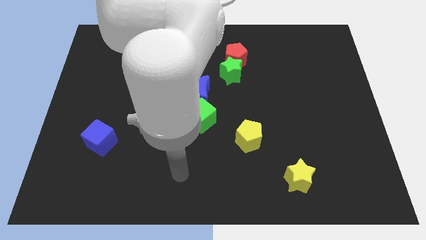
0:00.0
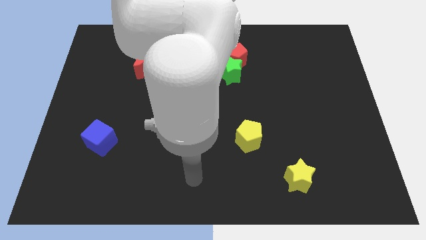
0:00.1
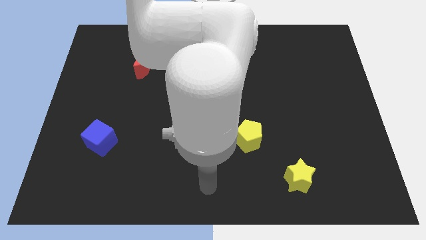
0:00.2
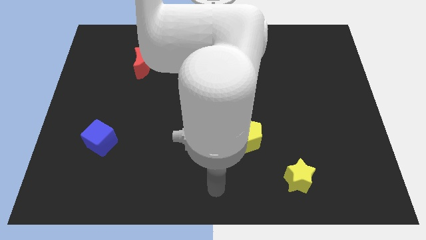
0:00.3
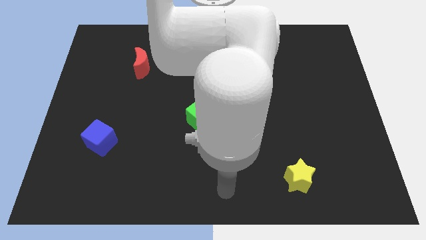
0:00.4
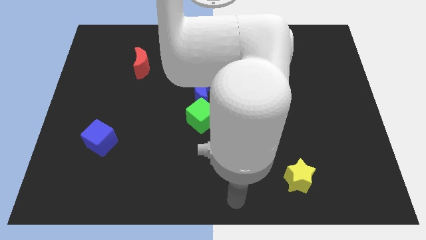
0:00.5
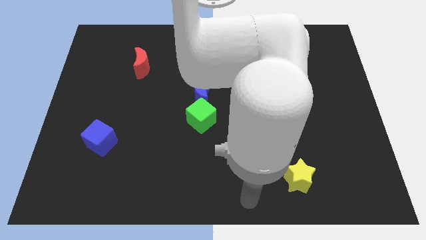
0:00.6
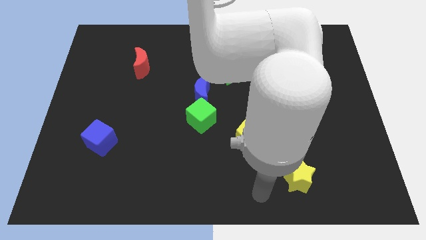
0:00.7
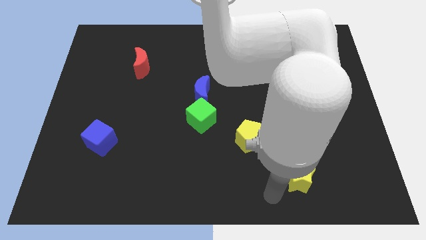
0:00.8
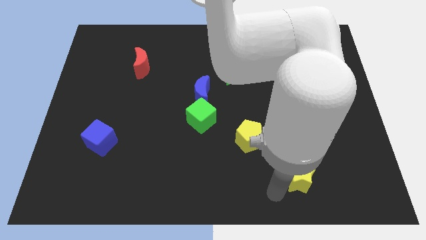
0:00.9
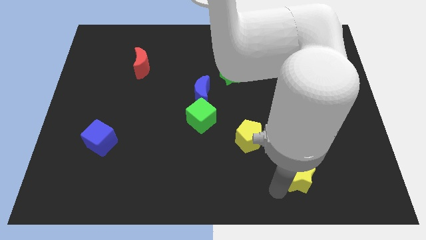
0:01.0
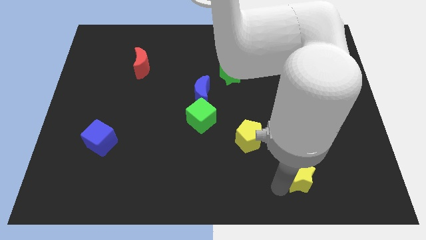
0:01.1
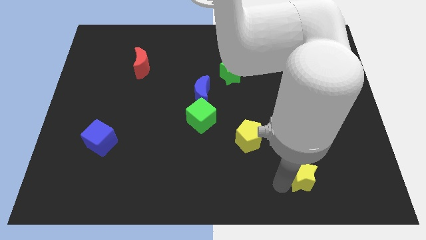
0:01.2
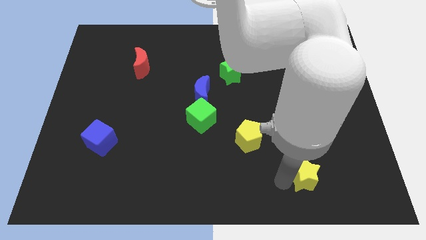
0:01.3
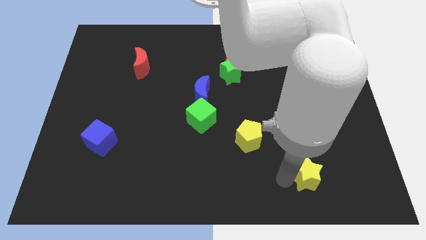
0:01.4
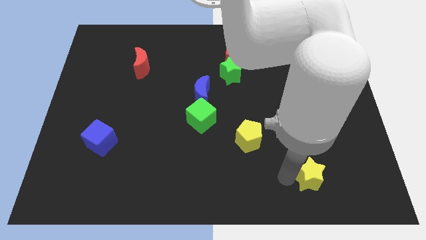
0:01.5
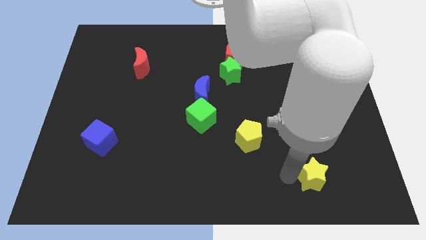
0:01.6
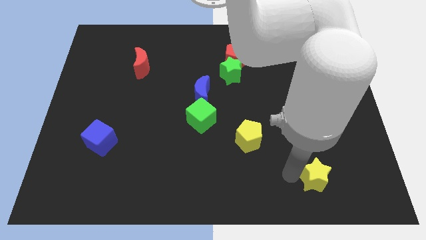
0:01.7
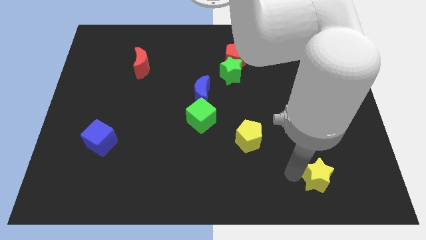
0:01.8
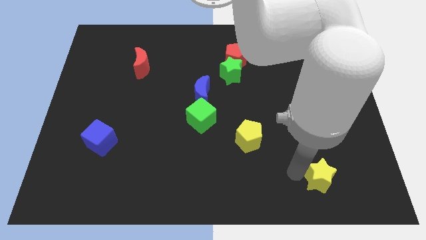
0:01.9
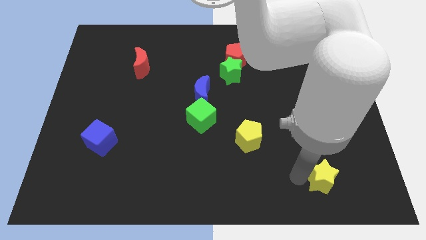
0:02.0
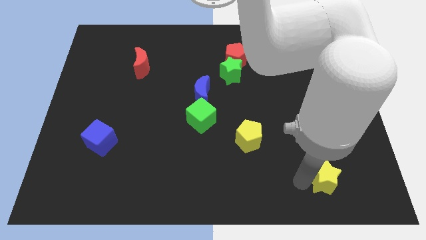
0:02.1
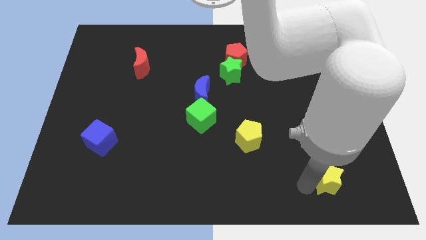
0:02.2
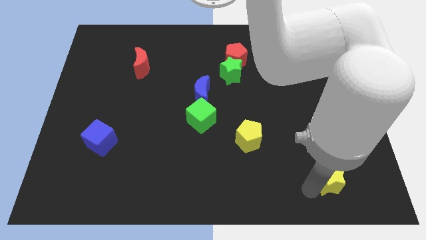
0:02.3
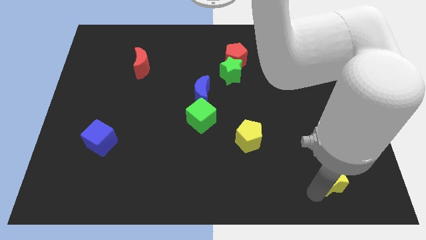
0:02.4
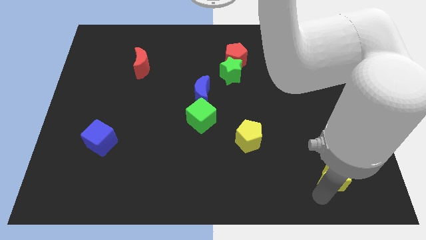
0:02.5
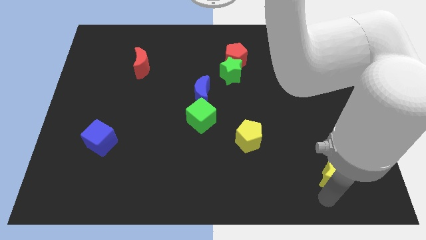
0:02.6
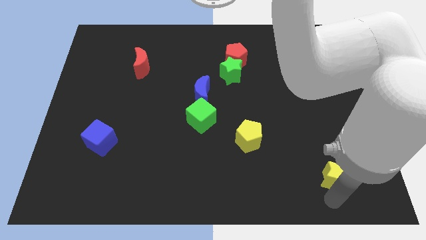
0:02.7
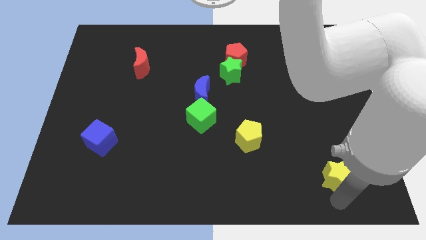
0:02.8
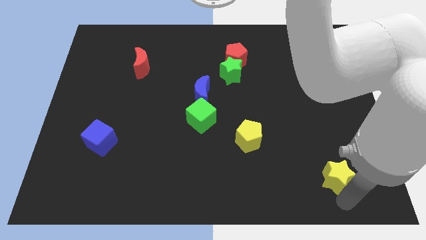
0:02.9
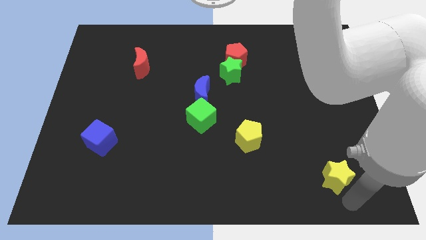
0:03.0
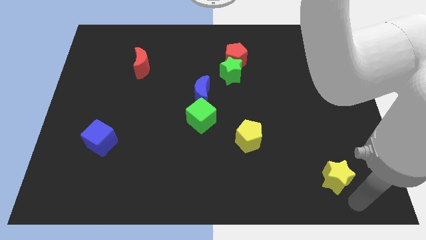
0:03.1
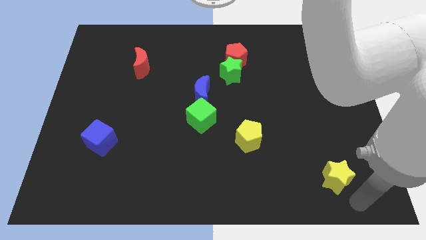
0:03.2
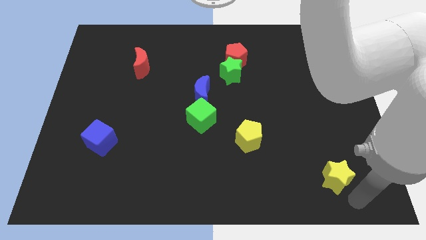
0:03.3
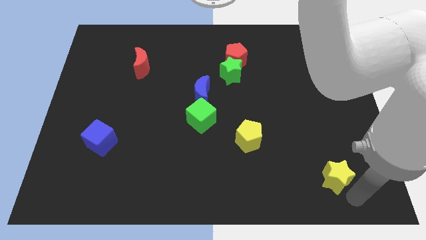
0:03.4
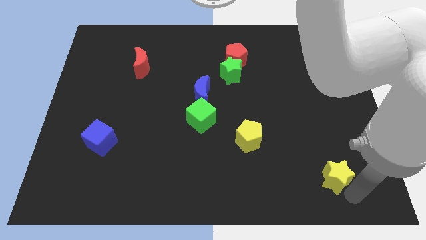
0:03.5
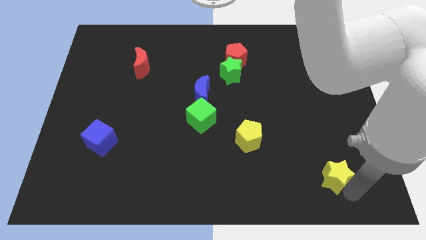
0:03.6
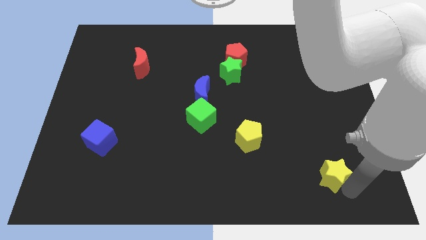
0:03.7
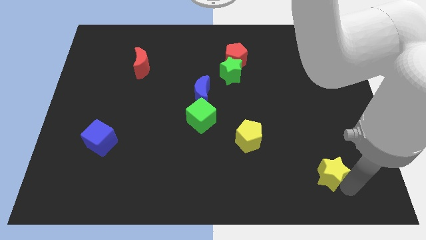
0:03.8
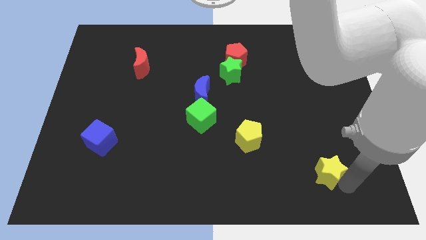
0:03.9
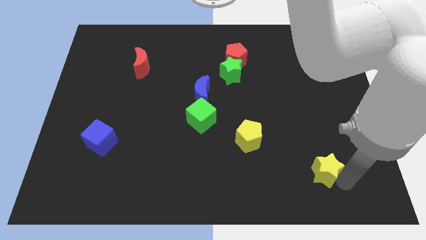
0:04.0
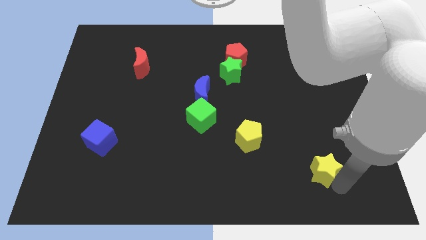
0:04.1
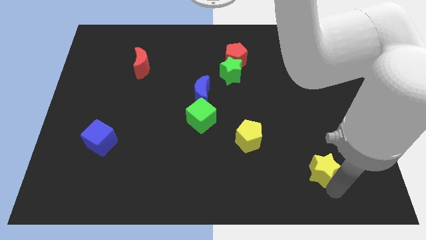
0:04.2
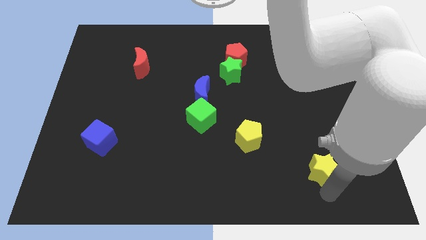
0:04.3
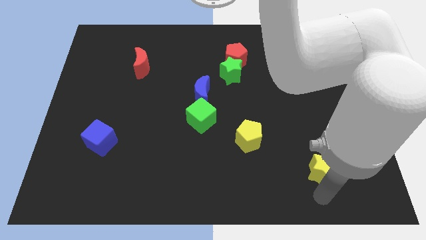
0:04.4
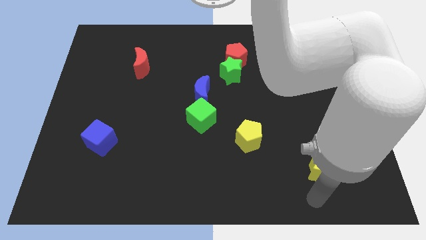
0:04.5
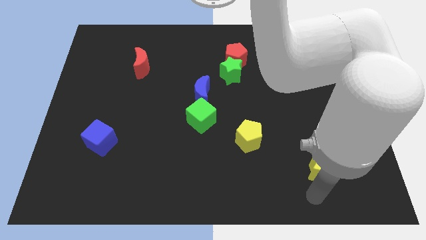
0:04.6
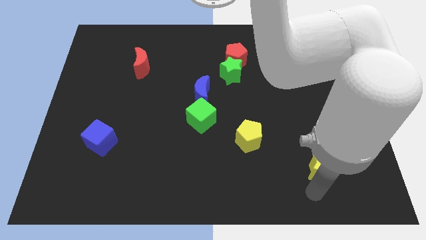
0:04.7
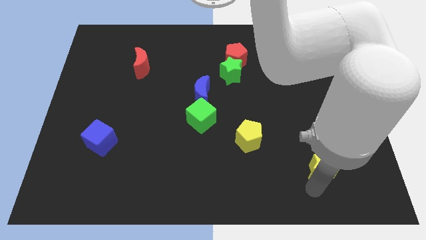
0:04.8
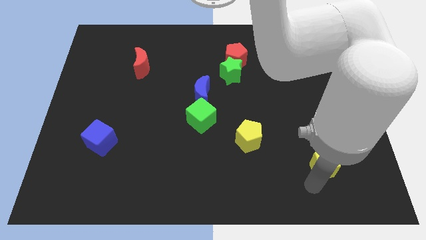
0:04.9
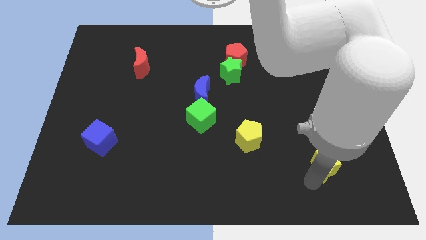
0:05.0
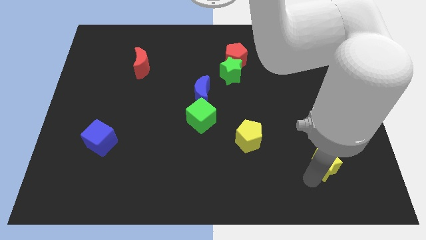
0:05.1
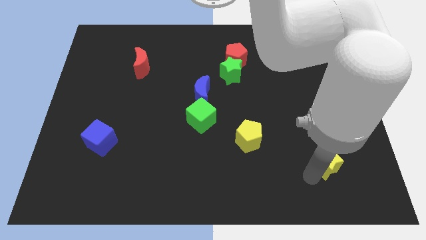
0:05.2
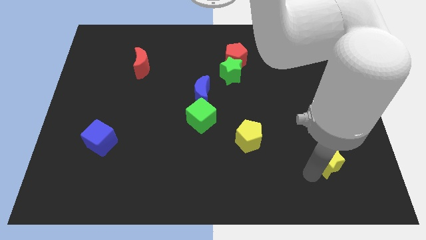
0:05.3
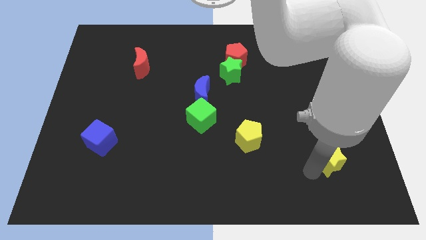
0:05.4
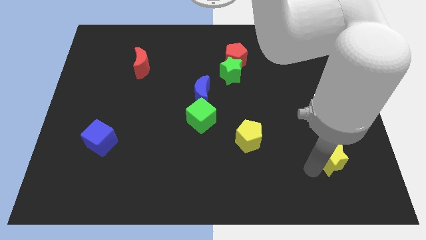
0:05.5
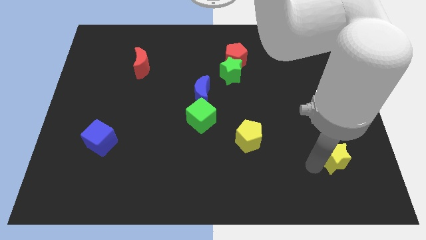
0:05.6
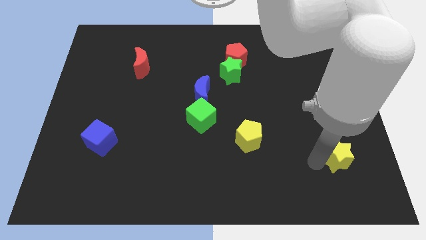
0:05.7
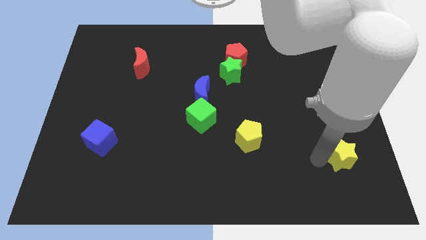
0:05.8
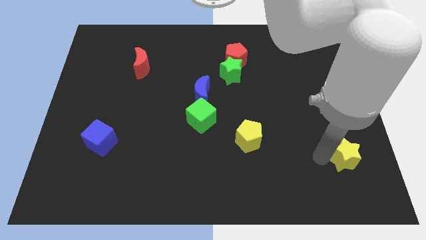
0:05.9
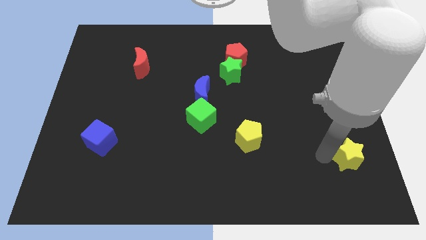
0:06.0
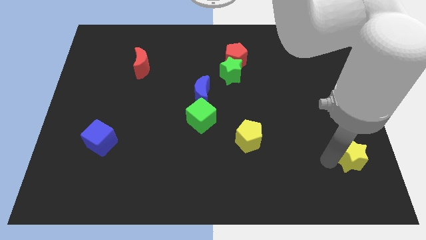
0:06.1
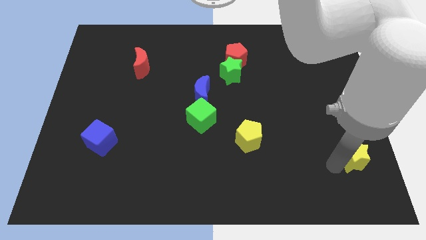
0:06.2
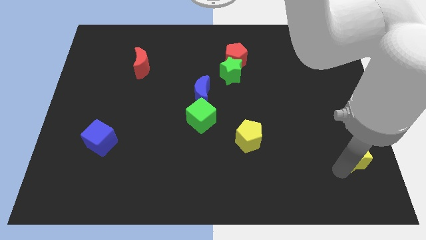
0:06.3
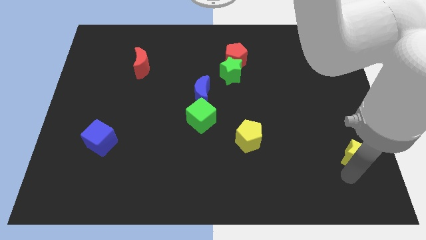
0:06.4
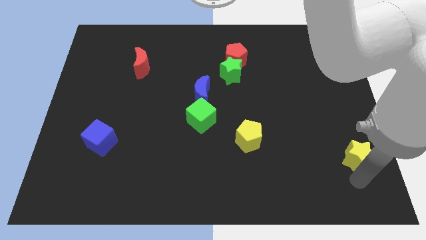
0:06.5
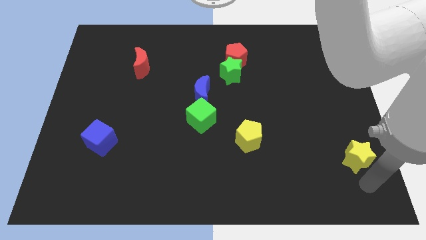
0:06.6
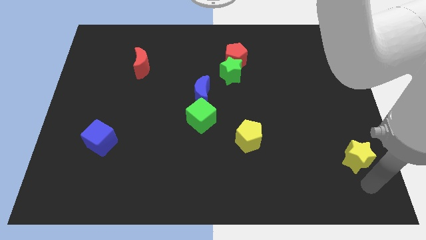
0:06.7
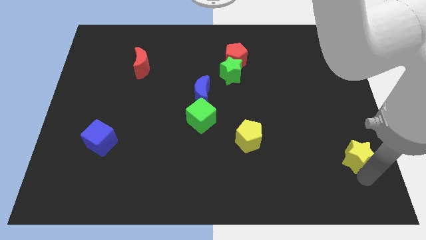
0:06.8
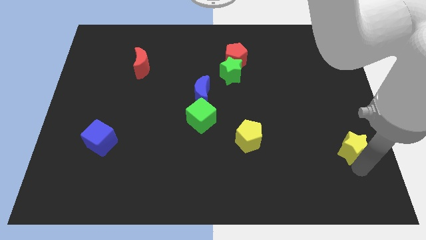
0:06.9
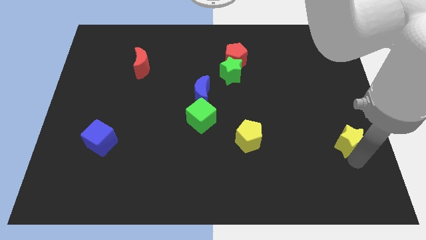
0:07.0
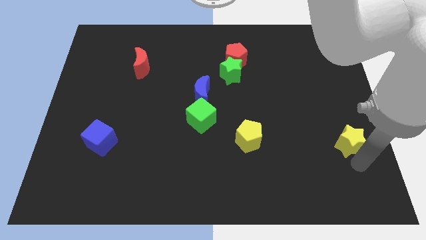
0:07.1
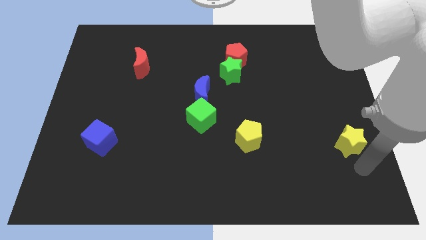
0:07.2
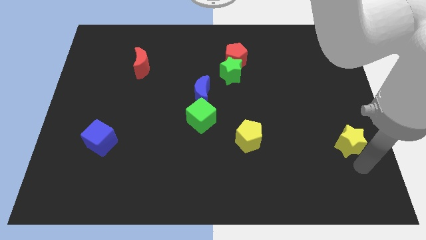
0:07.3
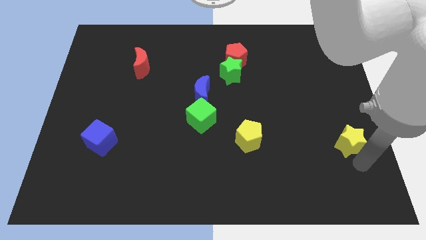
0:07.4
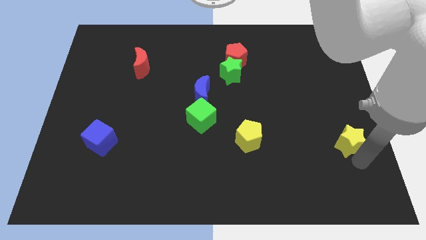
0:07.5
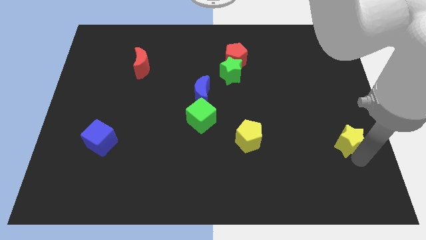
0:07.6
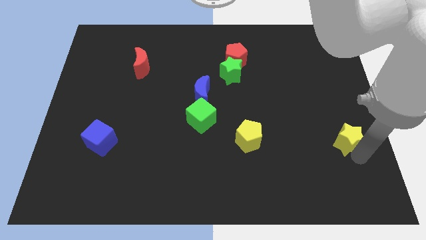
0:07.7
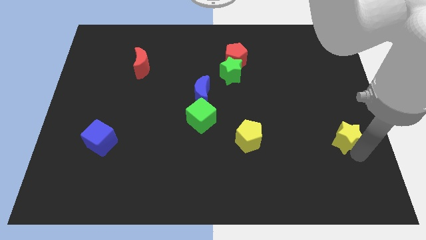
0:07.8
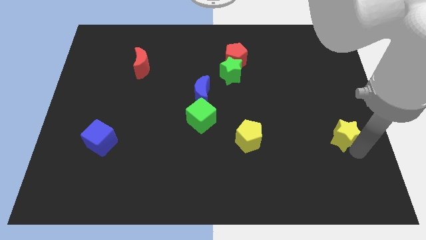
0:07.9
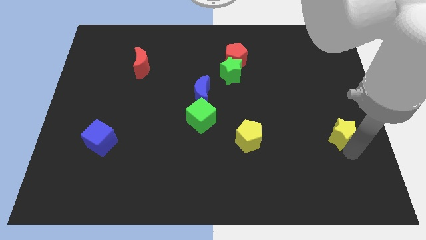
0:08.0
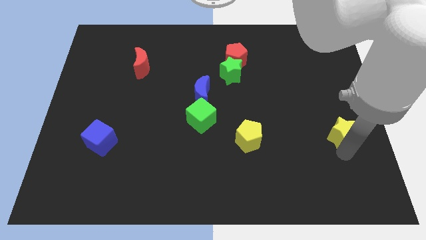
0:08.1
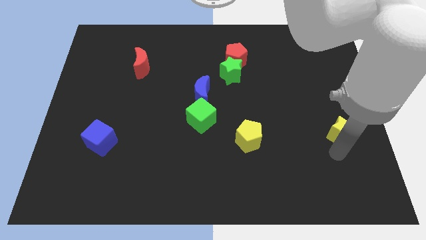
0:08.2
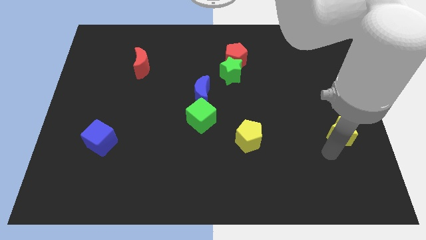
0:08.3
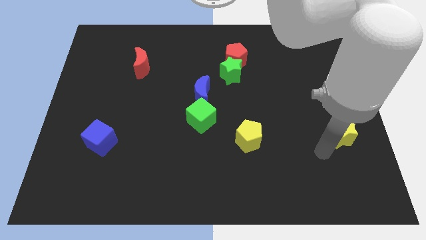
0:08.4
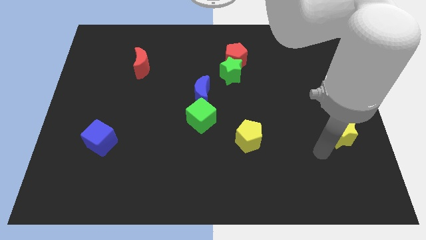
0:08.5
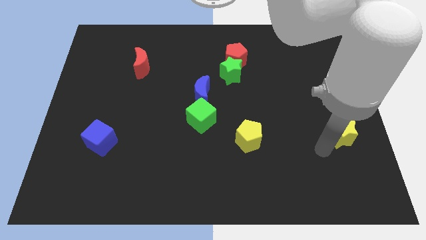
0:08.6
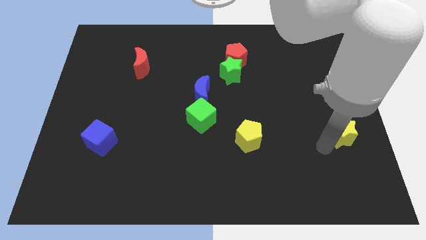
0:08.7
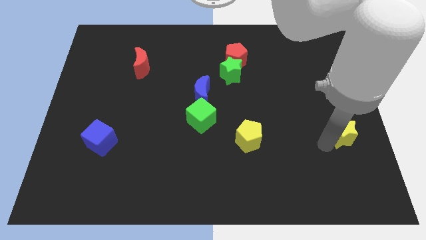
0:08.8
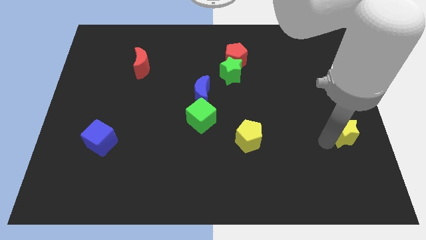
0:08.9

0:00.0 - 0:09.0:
put the yellow star to the right side
